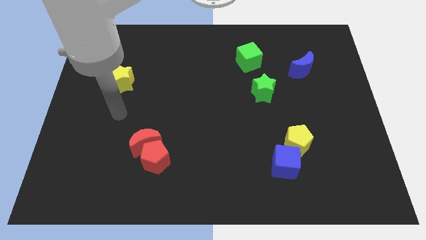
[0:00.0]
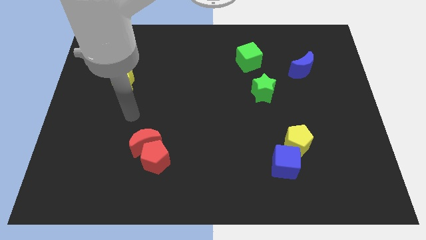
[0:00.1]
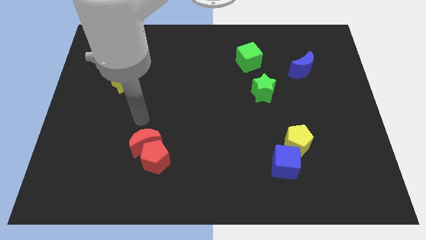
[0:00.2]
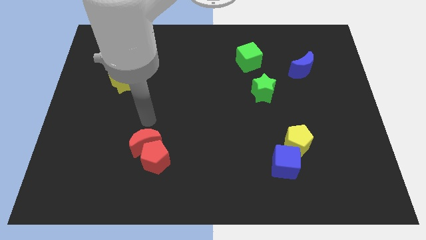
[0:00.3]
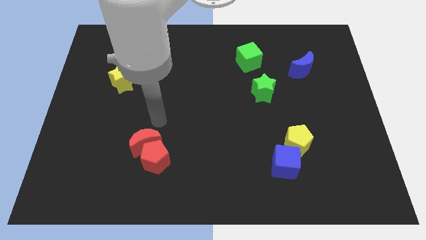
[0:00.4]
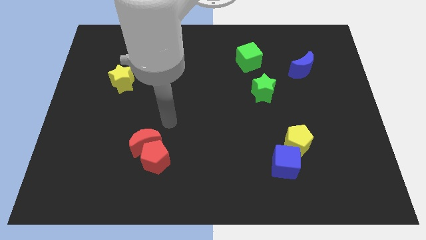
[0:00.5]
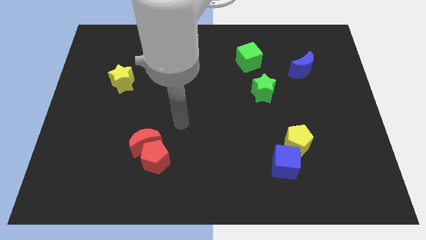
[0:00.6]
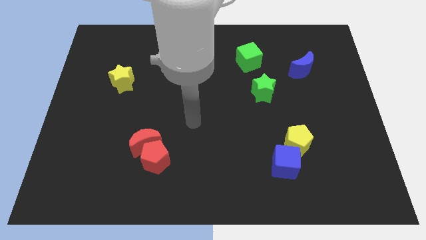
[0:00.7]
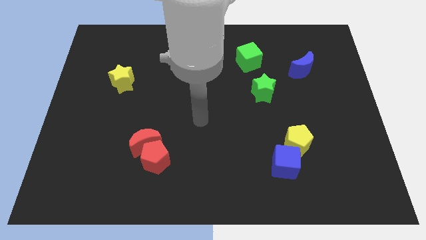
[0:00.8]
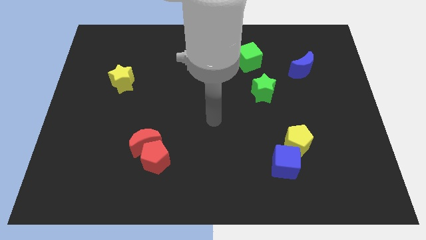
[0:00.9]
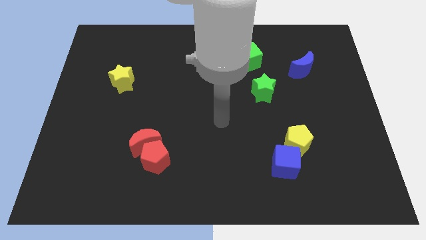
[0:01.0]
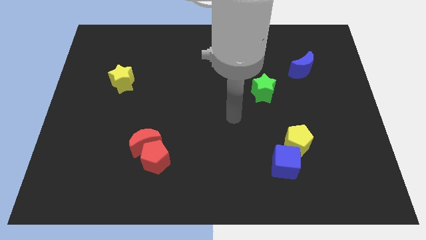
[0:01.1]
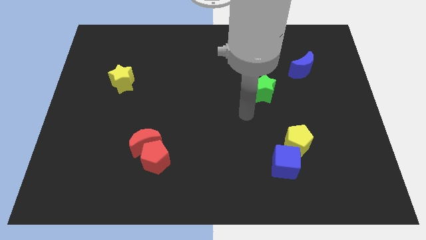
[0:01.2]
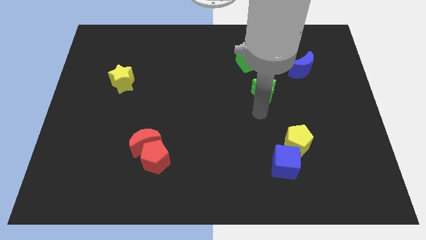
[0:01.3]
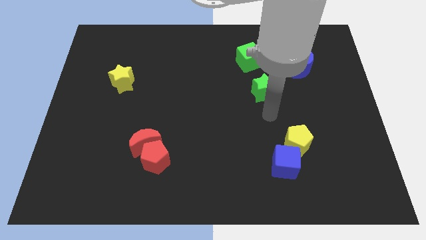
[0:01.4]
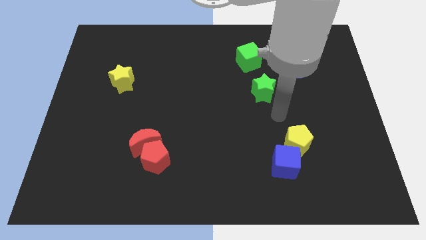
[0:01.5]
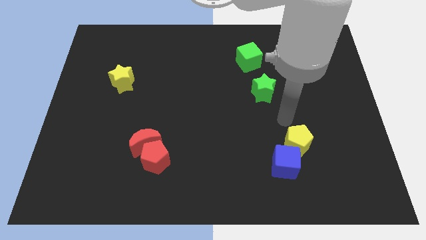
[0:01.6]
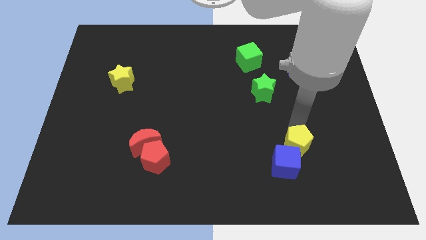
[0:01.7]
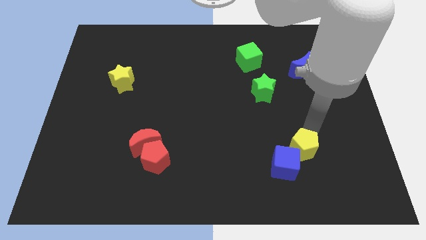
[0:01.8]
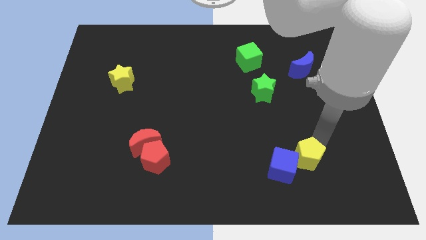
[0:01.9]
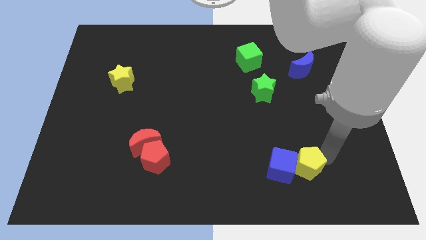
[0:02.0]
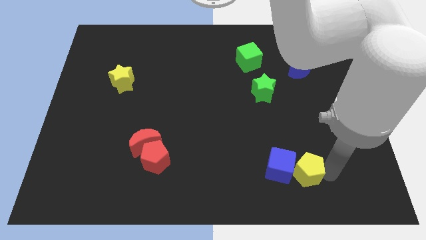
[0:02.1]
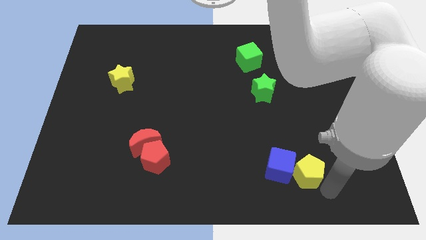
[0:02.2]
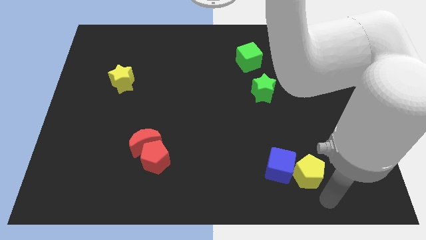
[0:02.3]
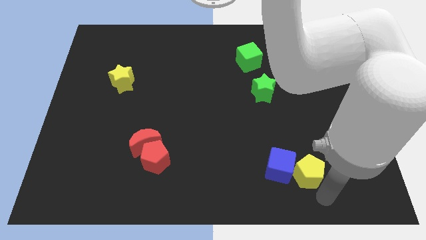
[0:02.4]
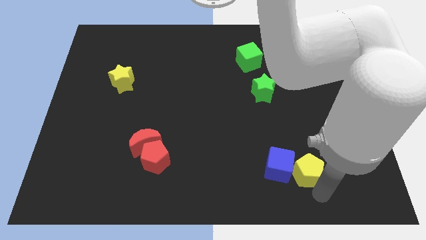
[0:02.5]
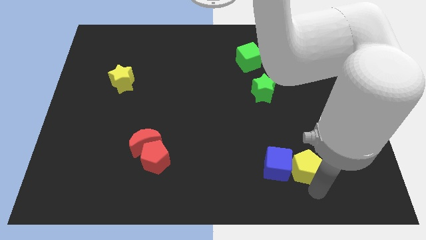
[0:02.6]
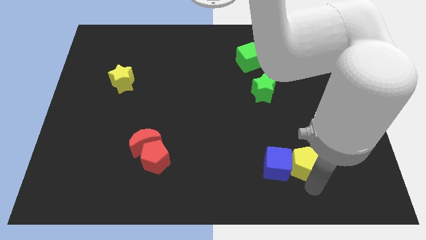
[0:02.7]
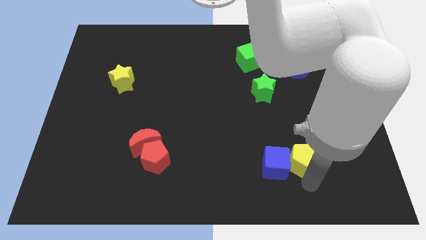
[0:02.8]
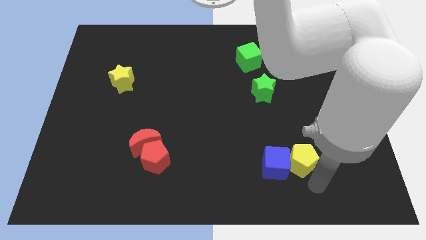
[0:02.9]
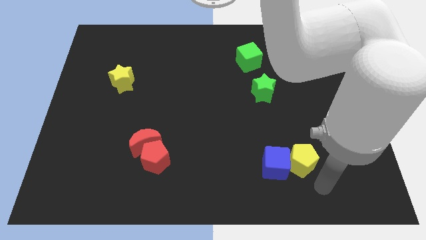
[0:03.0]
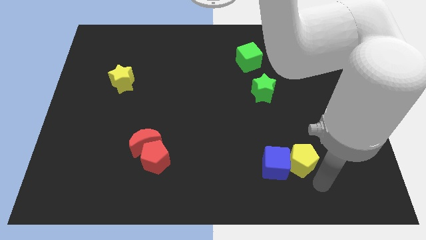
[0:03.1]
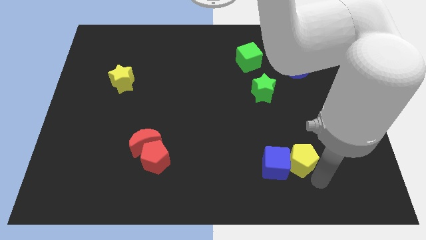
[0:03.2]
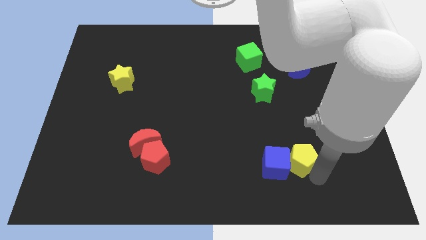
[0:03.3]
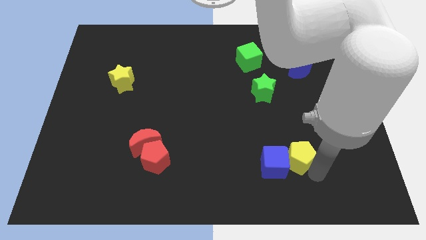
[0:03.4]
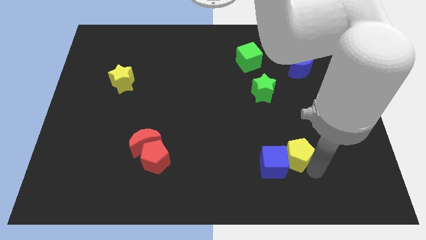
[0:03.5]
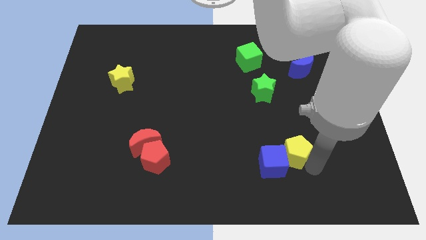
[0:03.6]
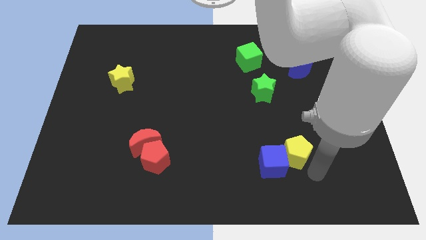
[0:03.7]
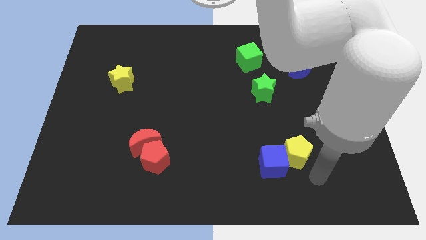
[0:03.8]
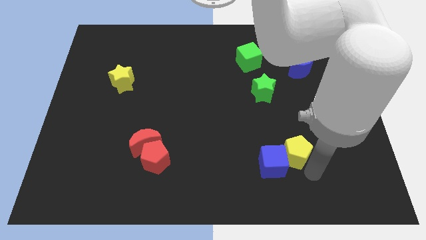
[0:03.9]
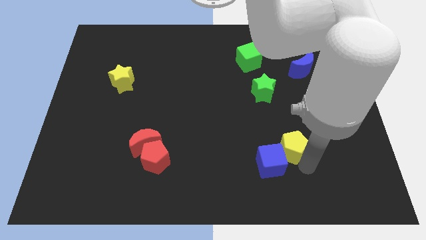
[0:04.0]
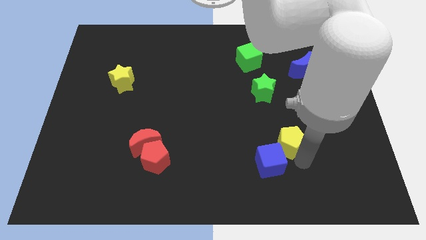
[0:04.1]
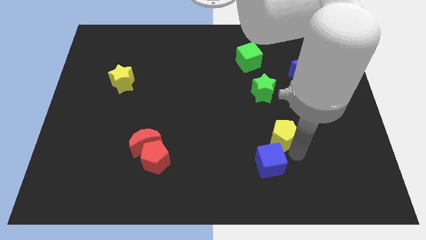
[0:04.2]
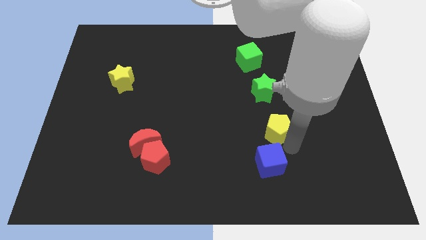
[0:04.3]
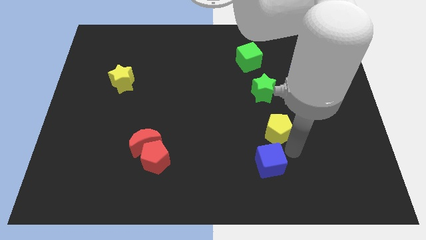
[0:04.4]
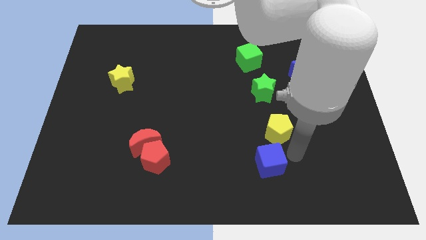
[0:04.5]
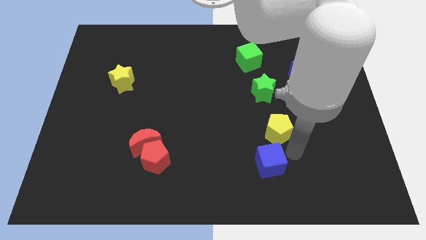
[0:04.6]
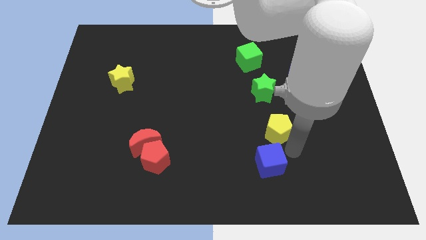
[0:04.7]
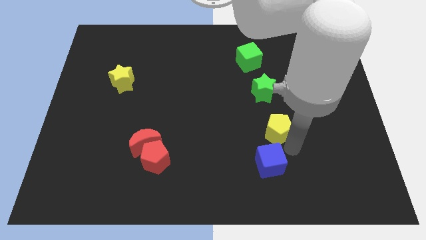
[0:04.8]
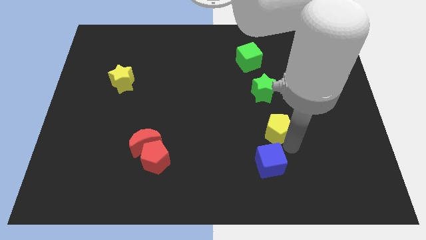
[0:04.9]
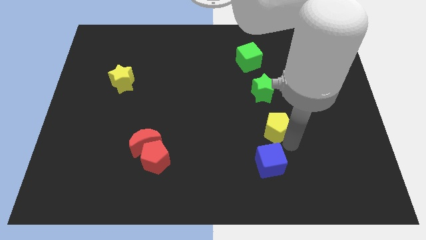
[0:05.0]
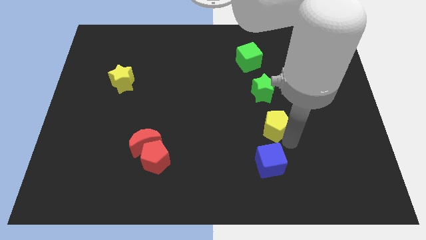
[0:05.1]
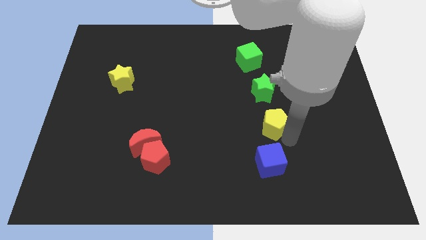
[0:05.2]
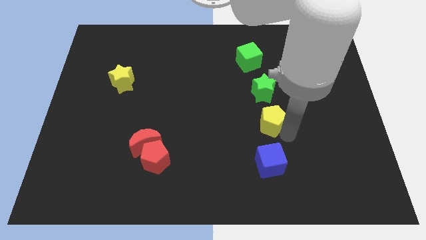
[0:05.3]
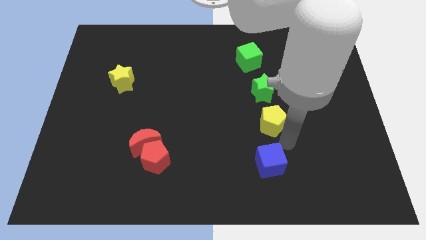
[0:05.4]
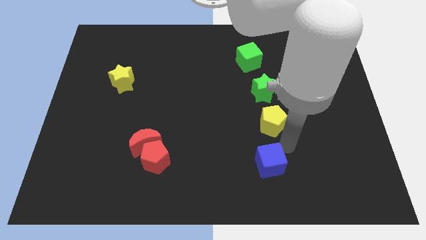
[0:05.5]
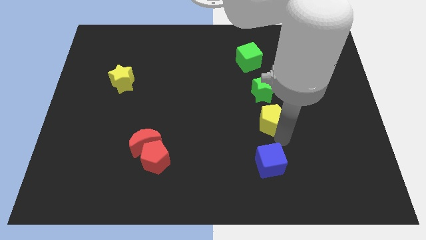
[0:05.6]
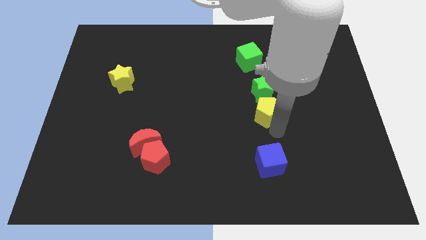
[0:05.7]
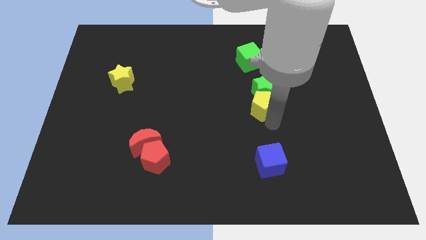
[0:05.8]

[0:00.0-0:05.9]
move the yellow pentagon to the bottom of the green cube

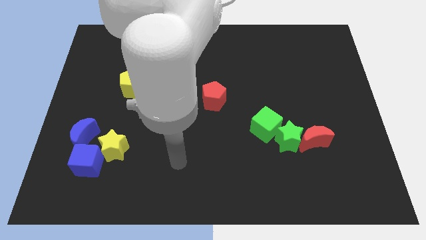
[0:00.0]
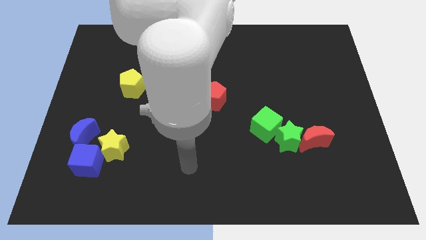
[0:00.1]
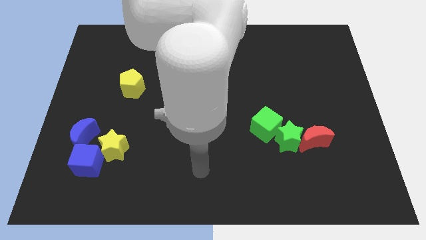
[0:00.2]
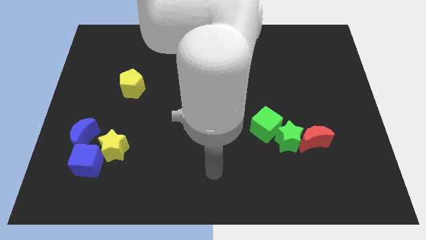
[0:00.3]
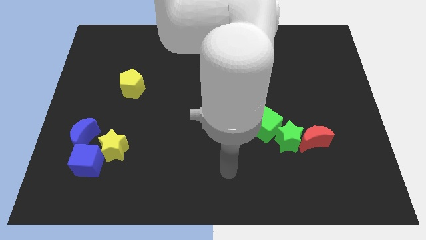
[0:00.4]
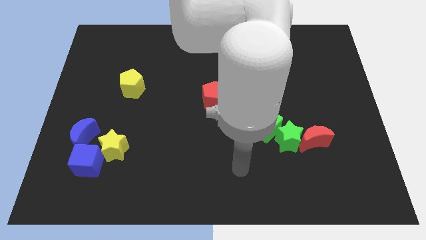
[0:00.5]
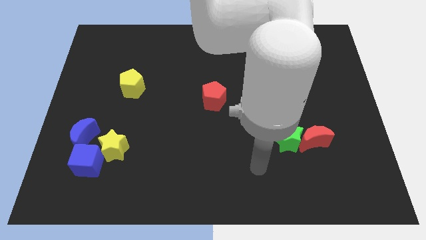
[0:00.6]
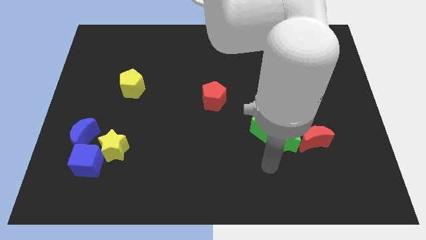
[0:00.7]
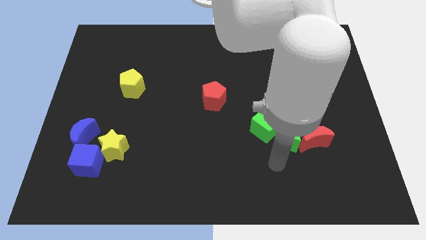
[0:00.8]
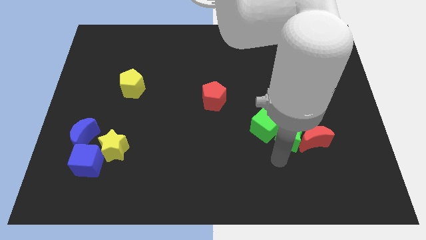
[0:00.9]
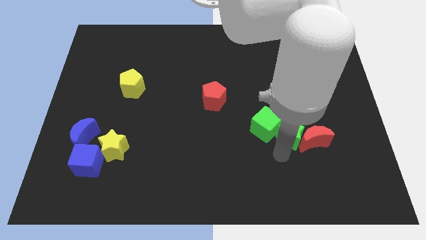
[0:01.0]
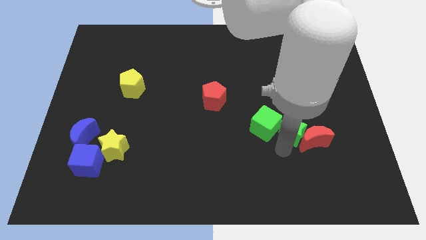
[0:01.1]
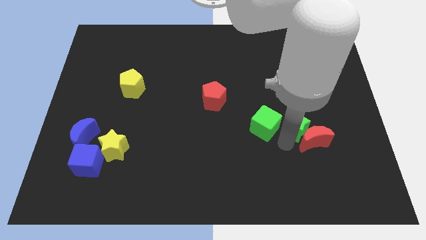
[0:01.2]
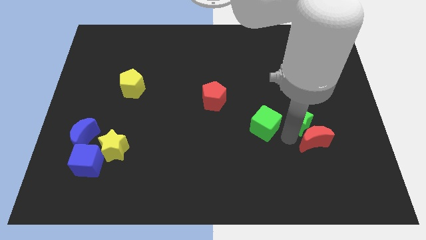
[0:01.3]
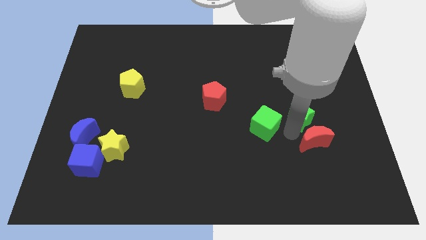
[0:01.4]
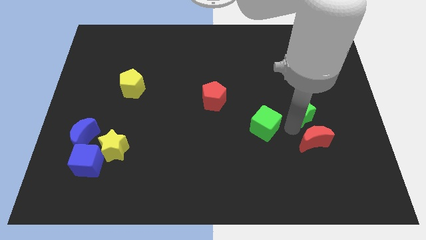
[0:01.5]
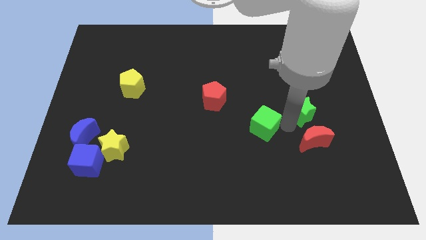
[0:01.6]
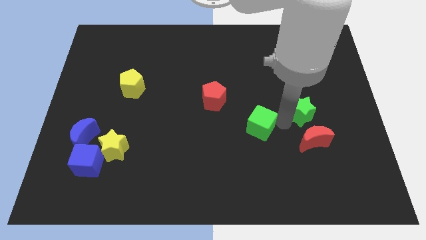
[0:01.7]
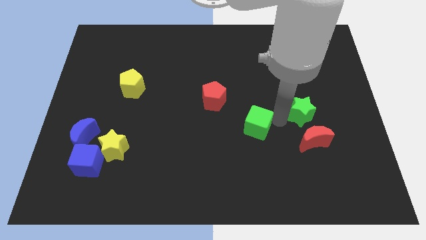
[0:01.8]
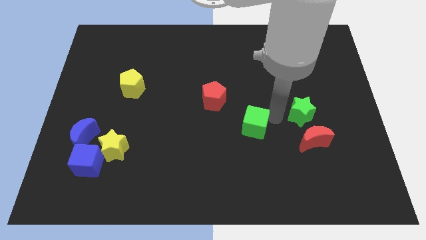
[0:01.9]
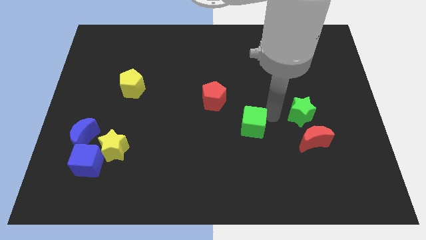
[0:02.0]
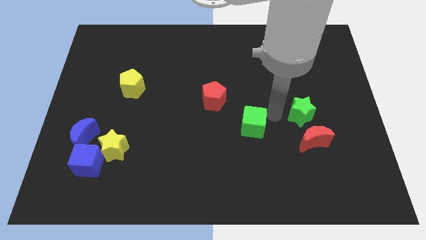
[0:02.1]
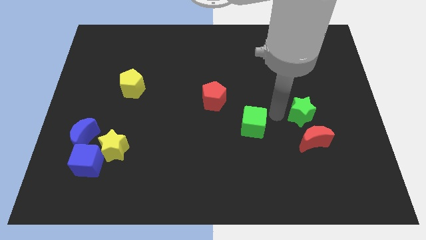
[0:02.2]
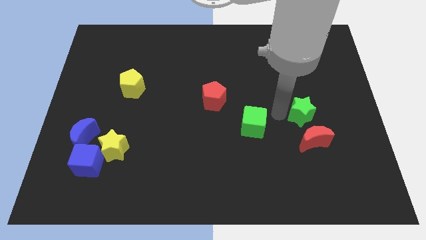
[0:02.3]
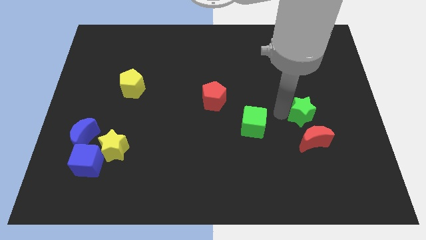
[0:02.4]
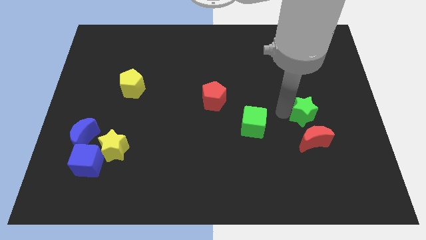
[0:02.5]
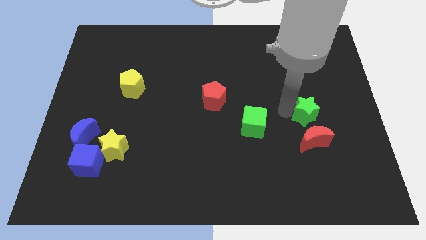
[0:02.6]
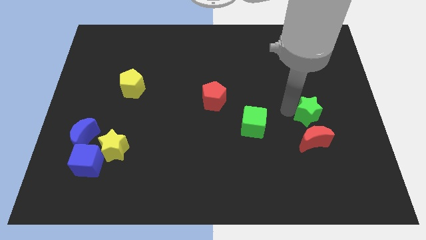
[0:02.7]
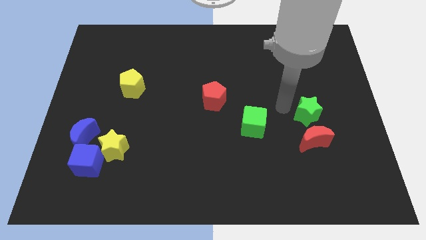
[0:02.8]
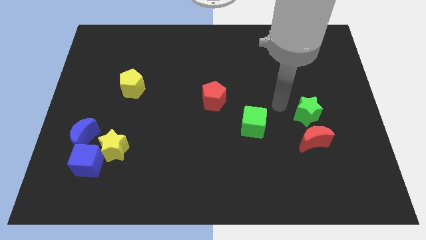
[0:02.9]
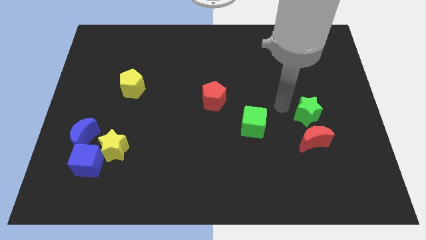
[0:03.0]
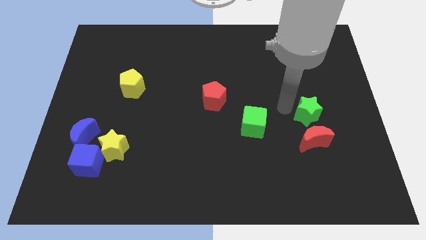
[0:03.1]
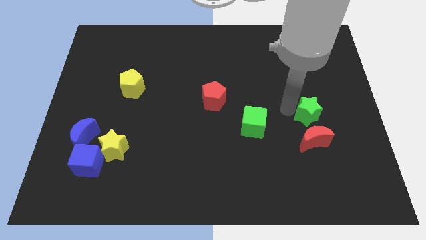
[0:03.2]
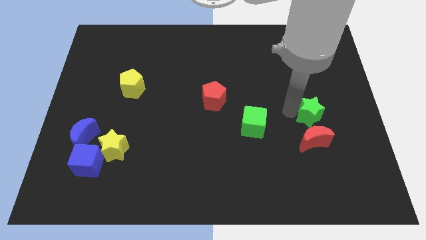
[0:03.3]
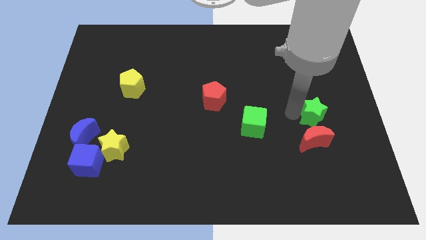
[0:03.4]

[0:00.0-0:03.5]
move the green star diagonally up and to the right of the red moon
